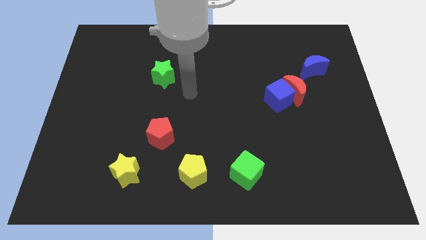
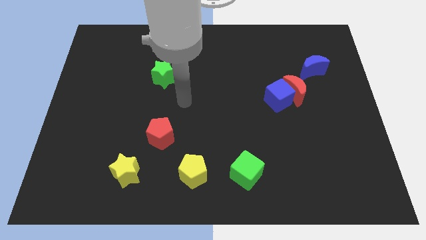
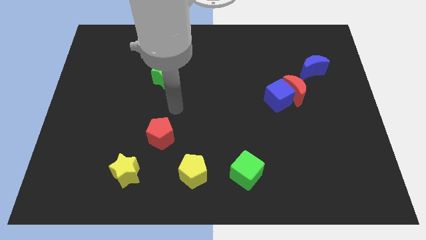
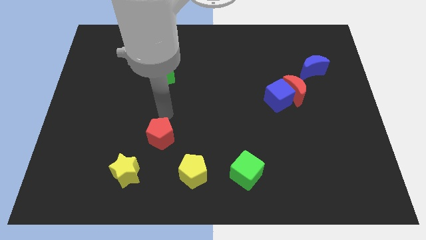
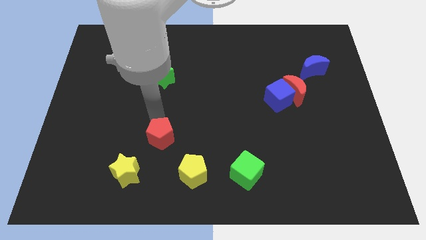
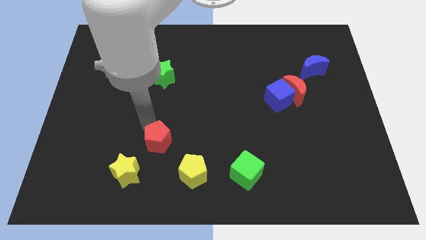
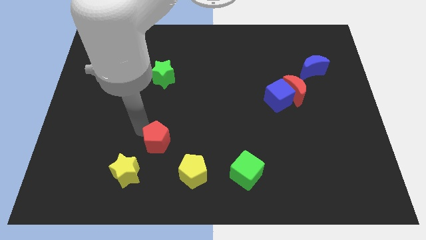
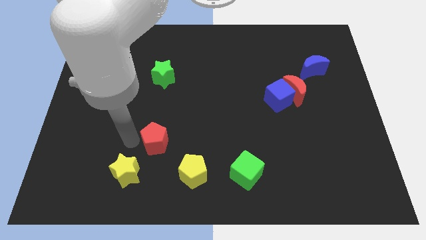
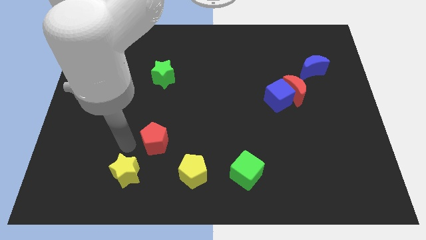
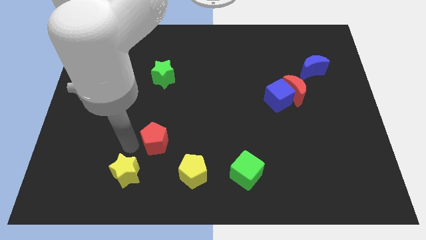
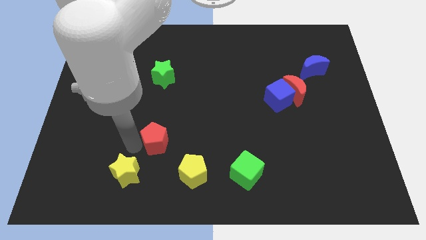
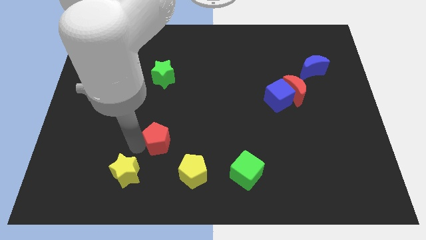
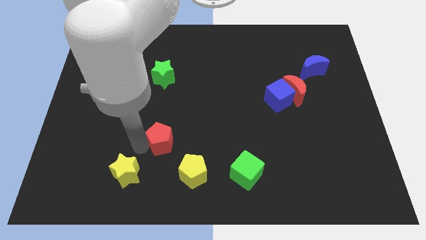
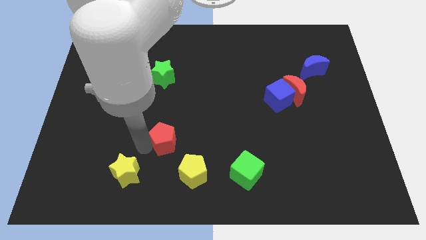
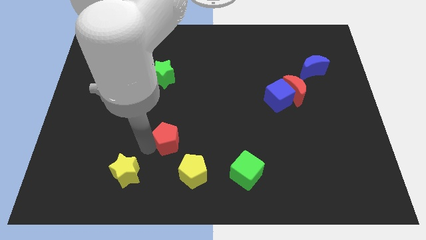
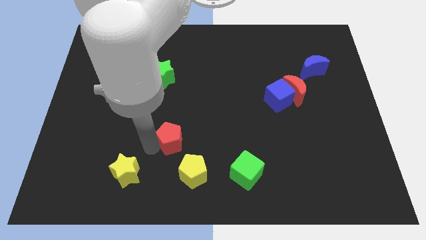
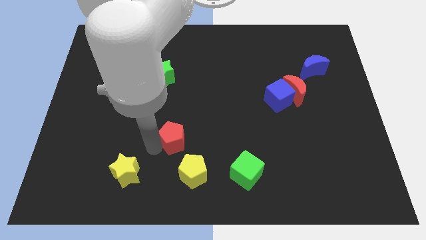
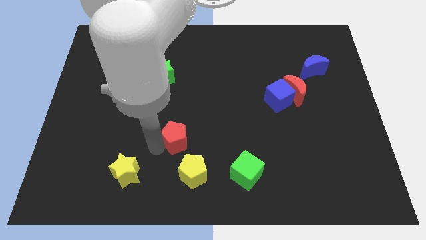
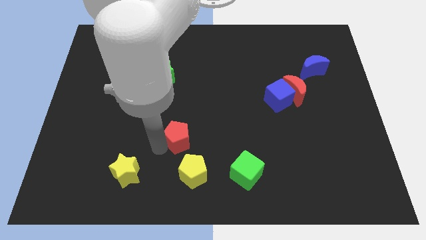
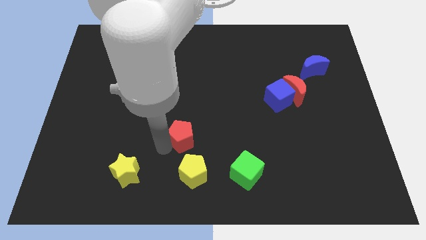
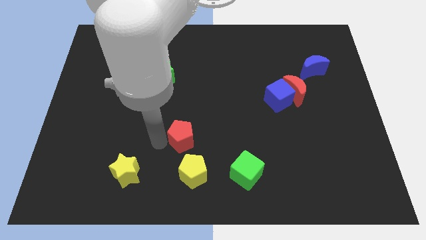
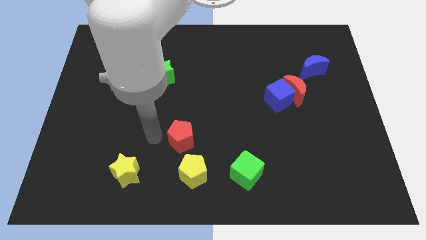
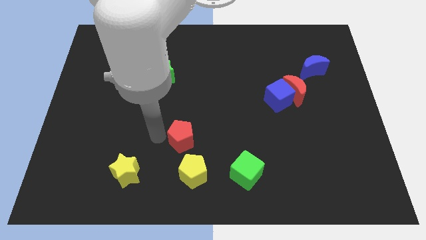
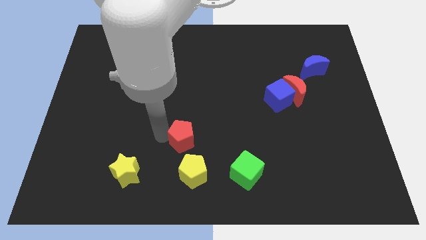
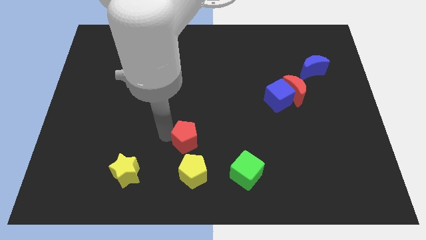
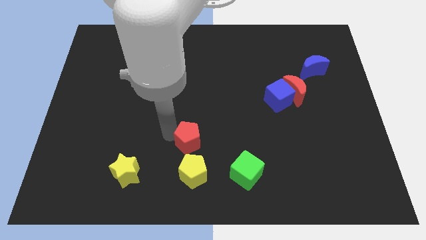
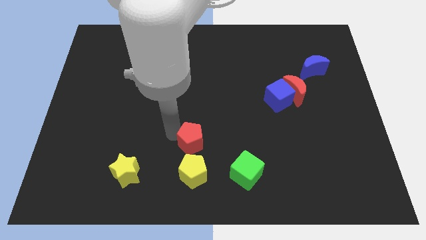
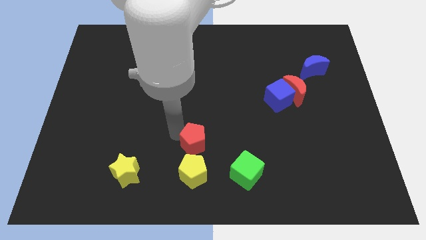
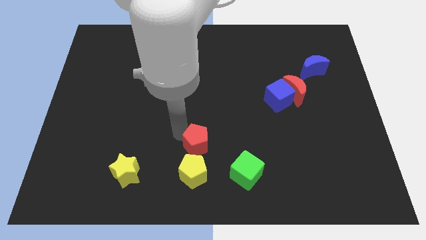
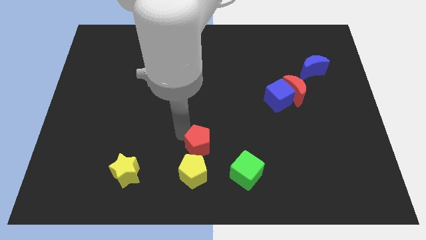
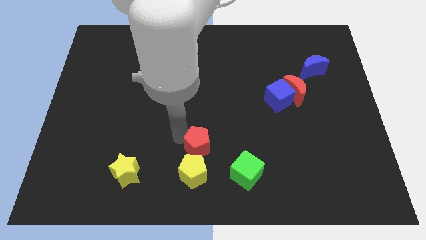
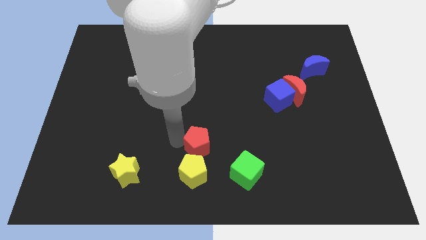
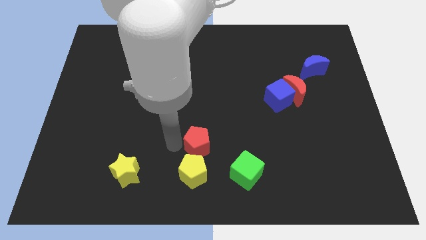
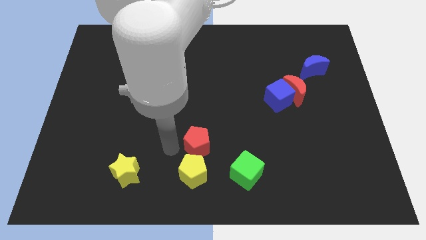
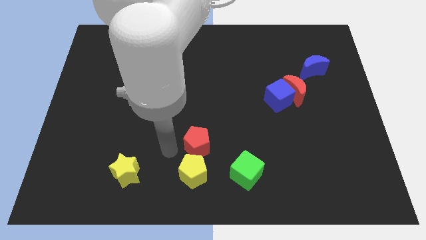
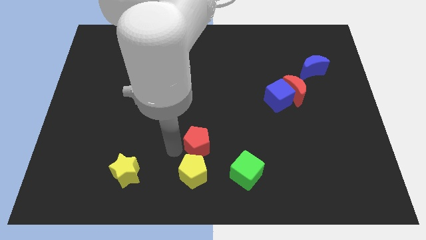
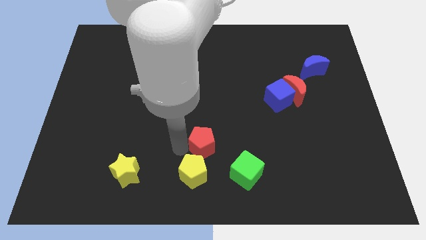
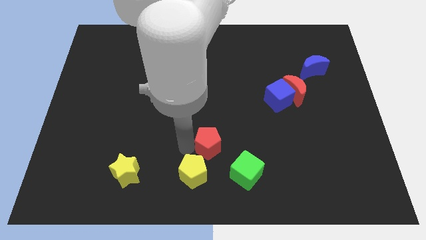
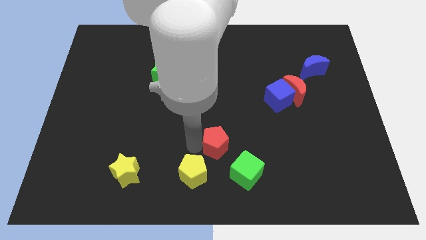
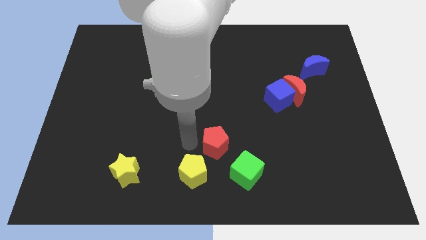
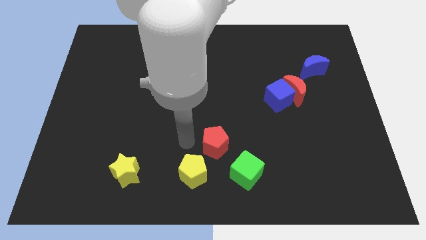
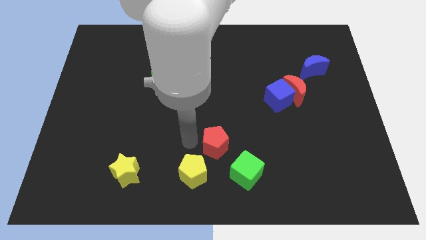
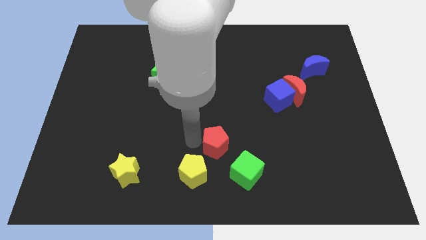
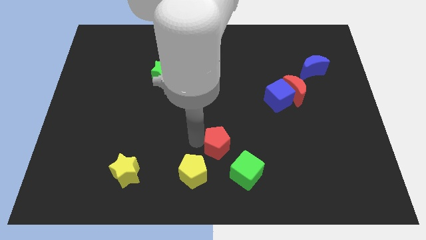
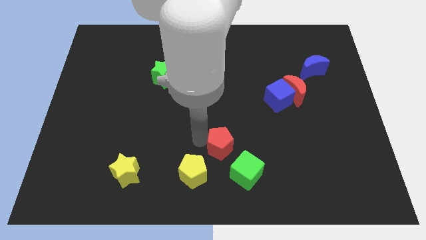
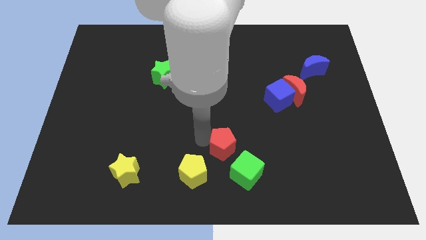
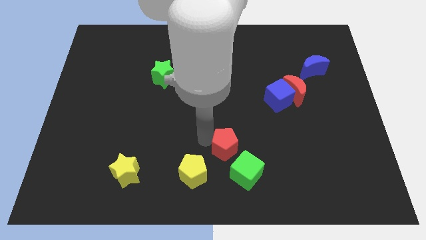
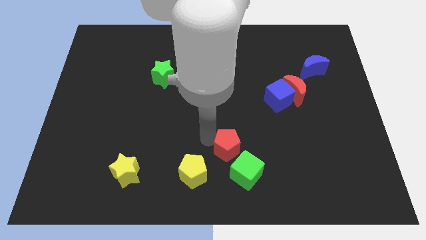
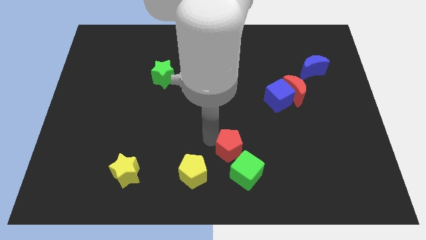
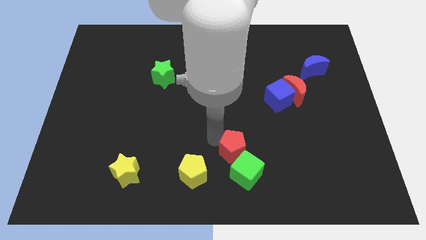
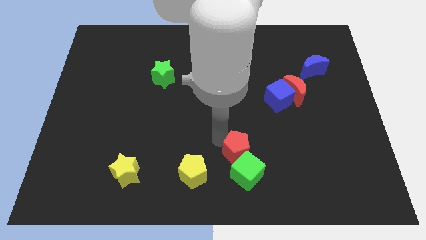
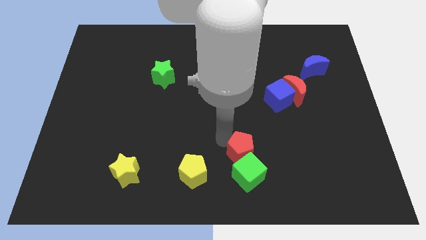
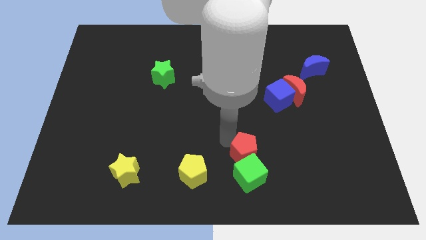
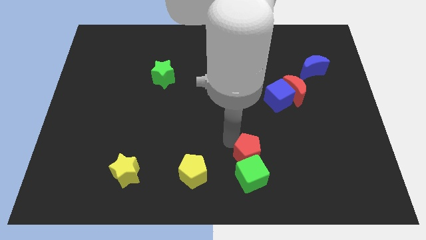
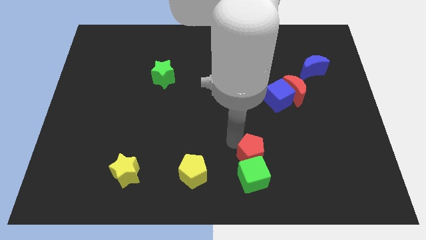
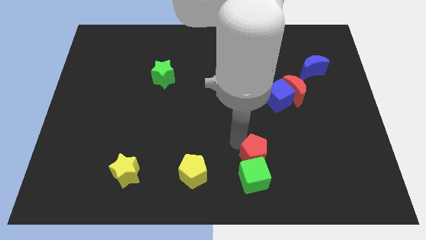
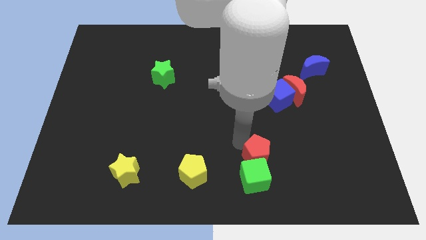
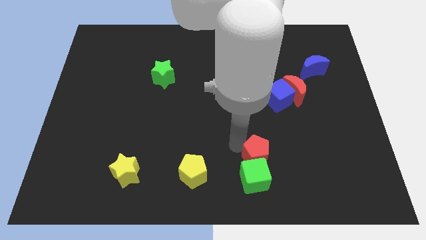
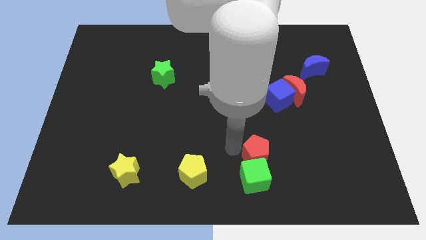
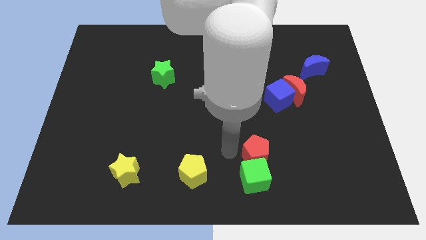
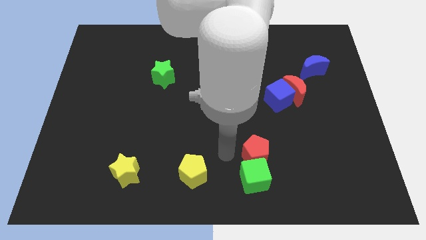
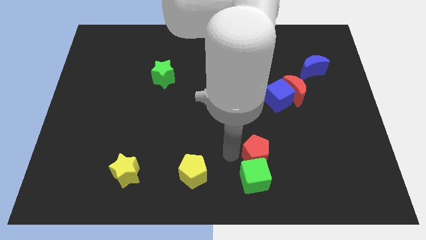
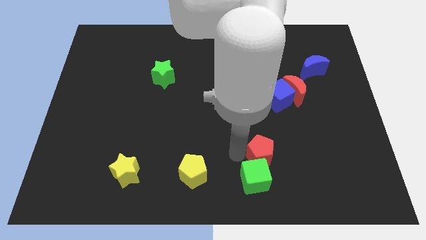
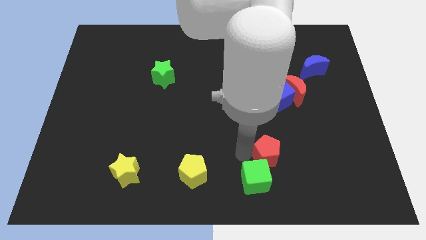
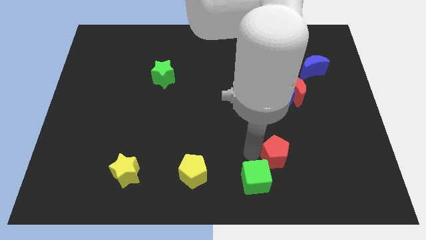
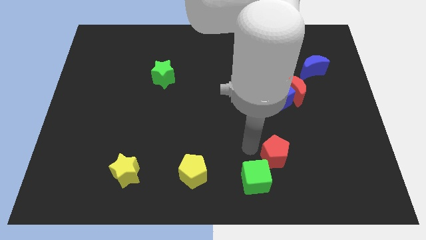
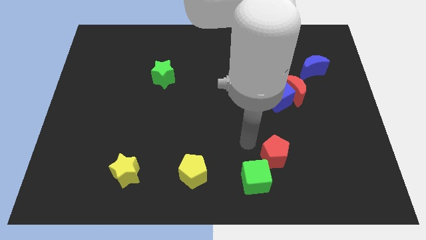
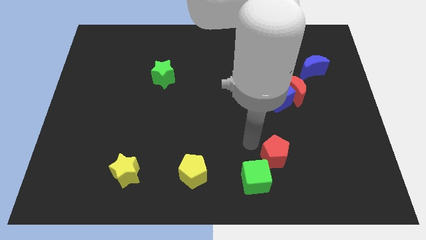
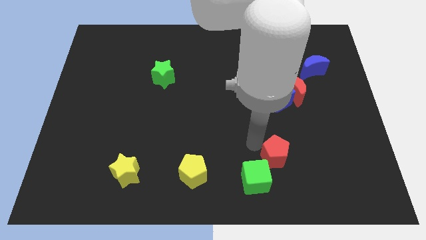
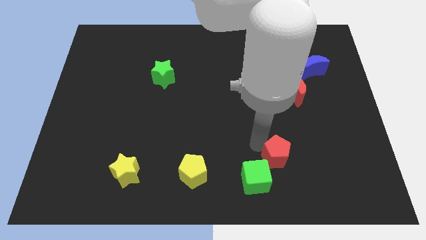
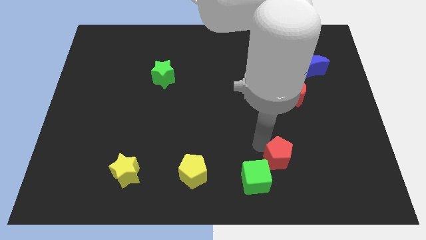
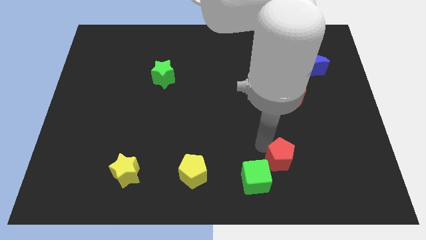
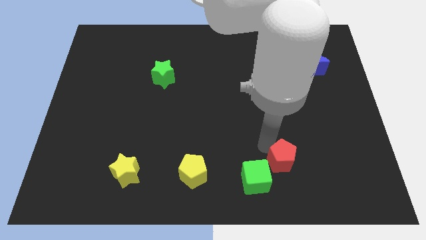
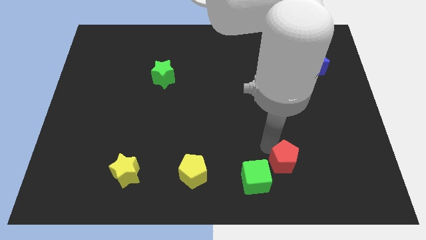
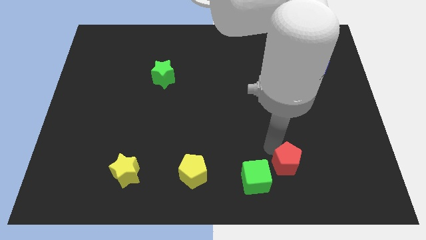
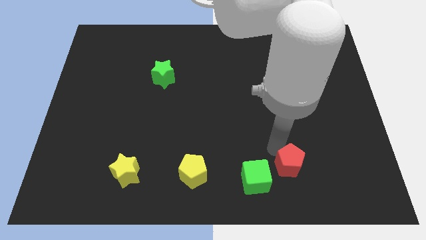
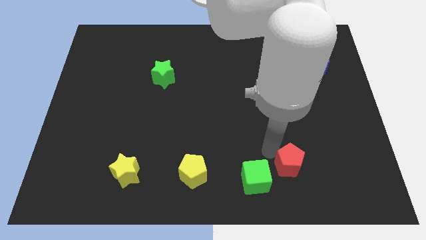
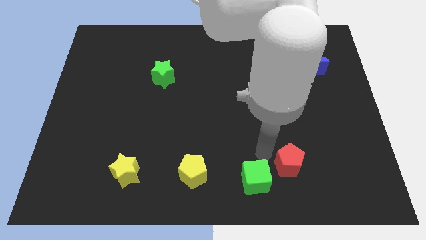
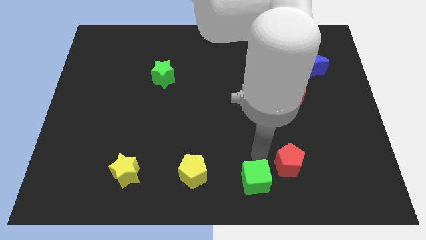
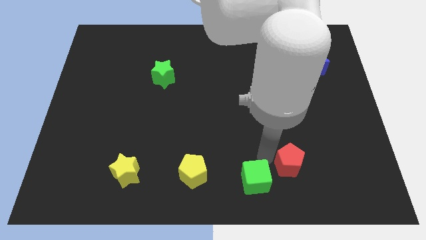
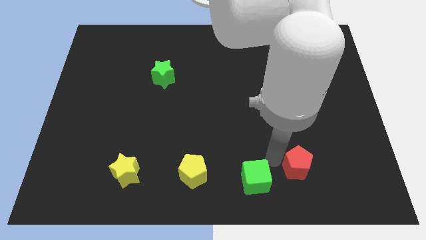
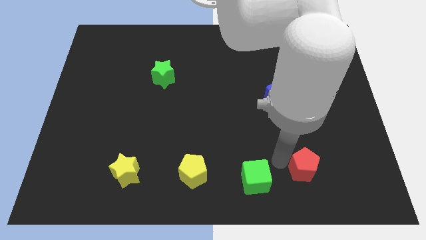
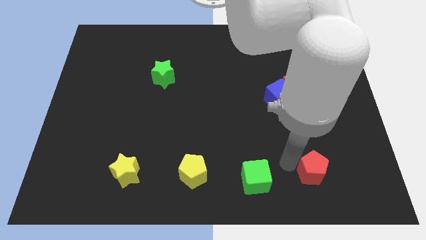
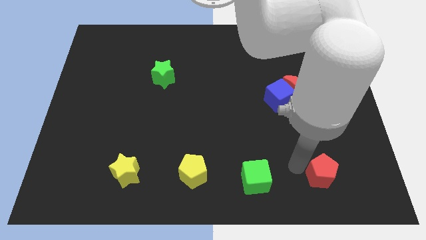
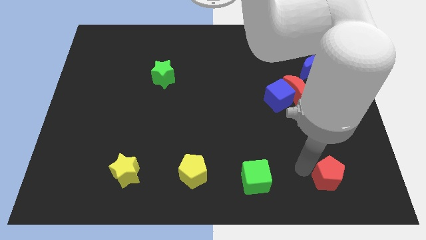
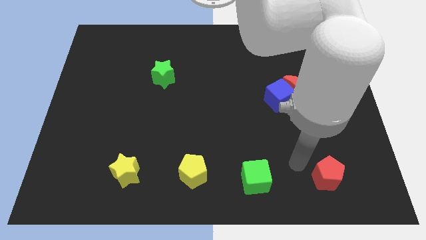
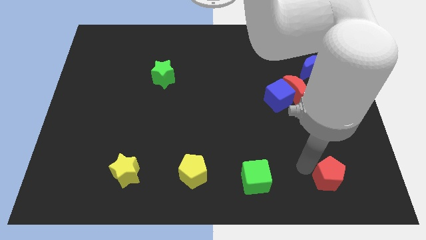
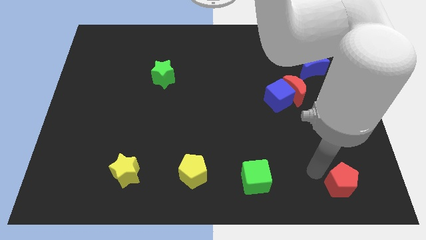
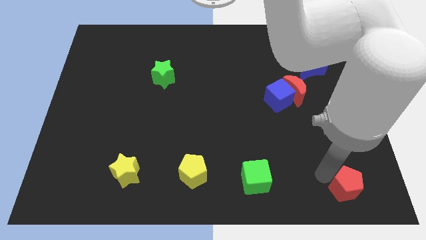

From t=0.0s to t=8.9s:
move the red pentagon to the bottom right of the board
